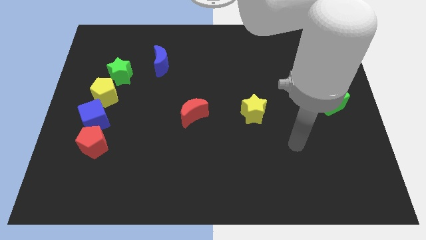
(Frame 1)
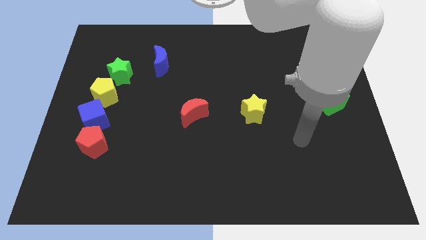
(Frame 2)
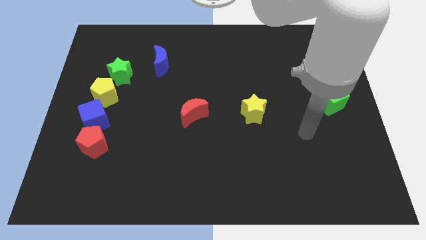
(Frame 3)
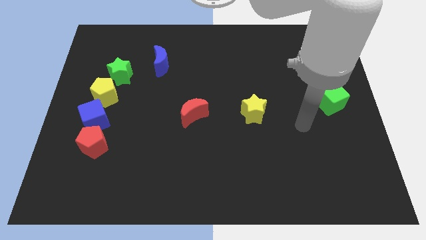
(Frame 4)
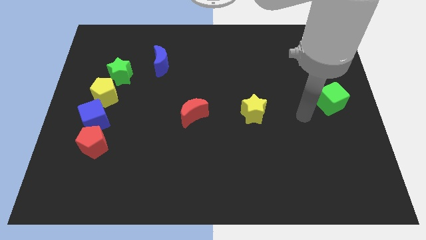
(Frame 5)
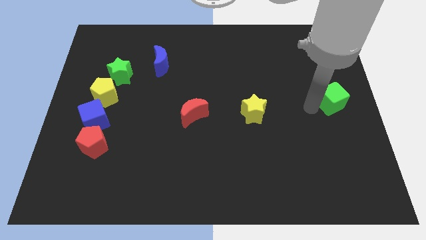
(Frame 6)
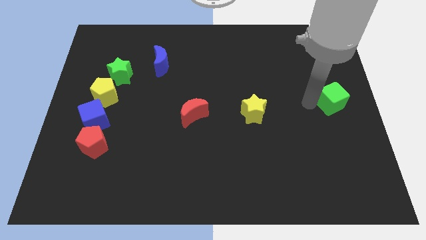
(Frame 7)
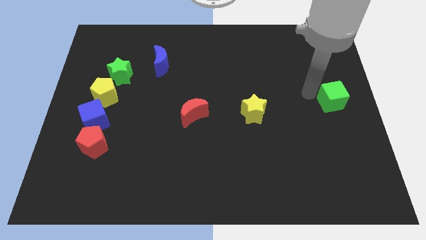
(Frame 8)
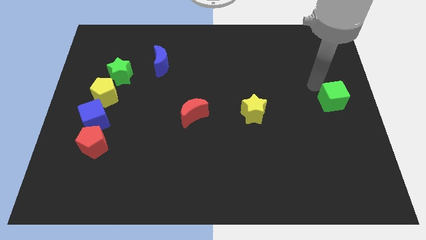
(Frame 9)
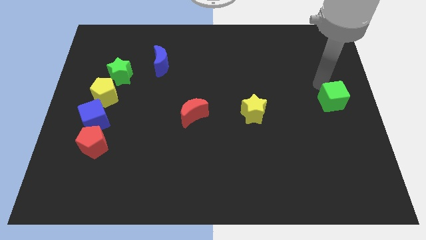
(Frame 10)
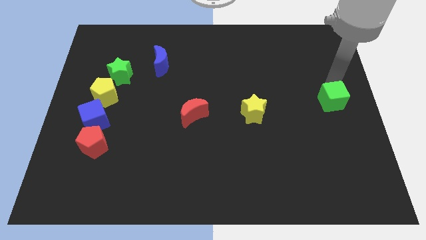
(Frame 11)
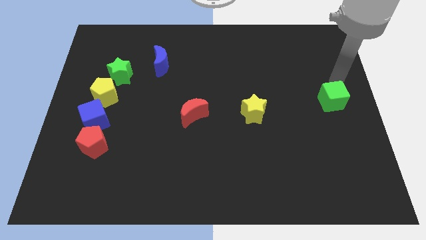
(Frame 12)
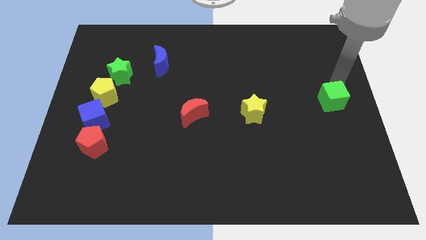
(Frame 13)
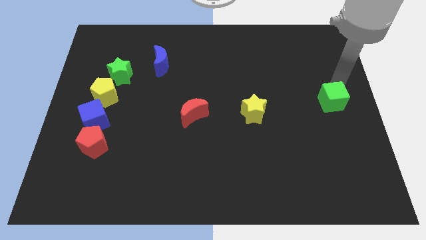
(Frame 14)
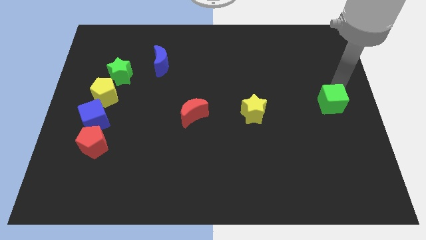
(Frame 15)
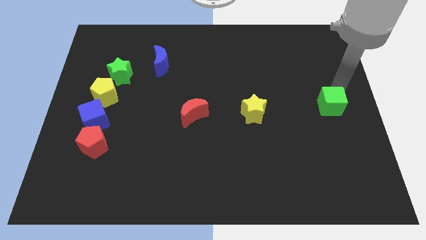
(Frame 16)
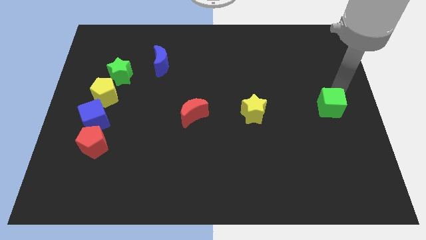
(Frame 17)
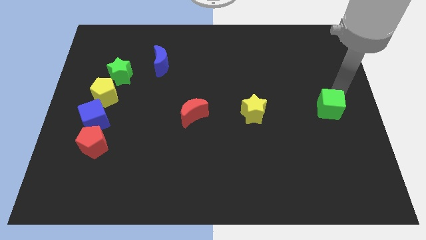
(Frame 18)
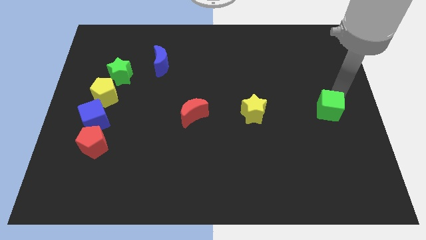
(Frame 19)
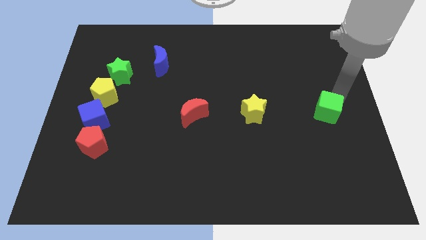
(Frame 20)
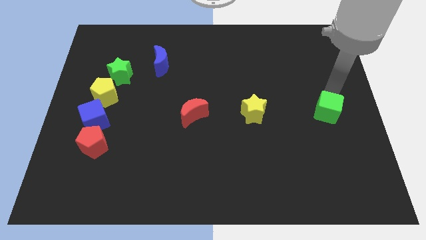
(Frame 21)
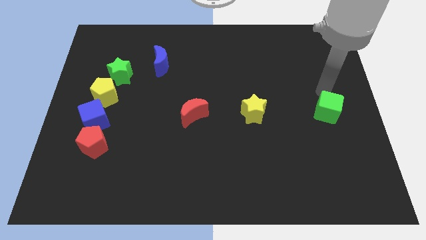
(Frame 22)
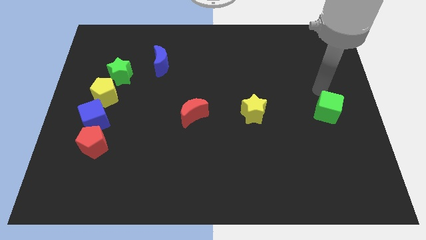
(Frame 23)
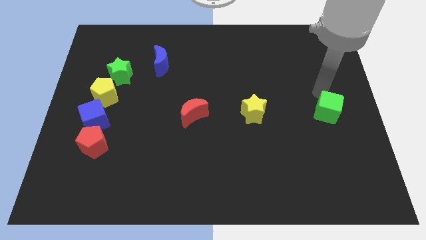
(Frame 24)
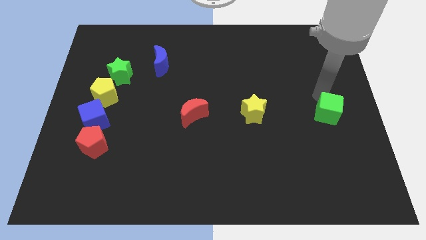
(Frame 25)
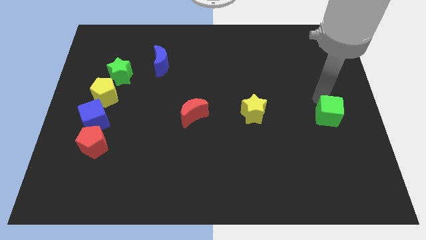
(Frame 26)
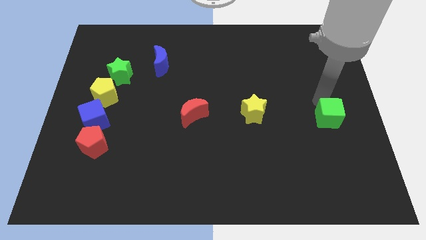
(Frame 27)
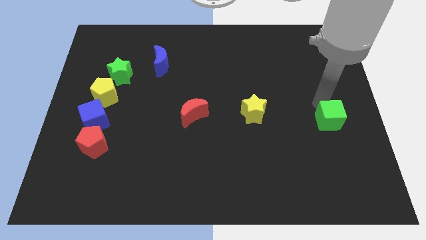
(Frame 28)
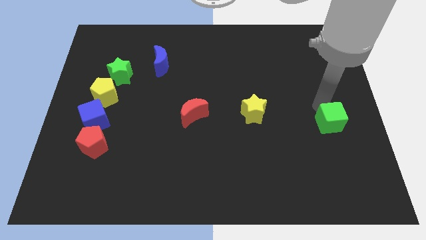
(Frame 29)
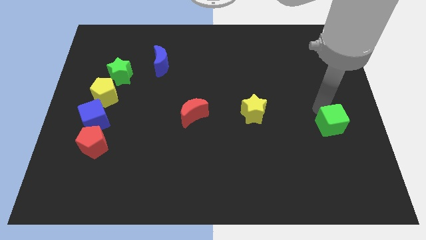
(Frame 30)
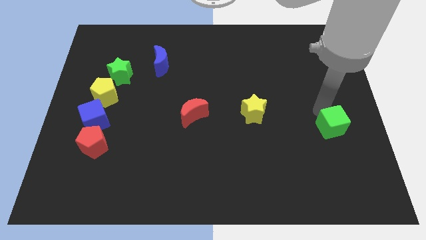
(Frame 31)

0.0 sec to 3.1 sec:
push the green cube a little bit down

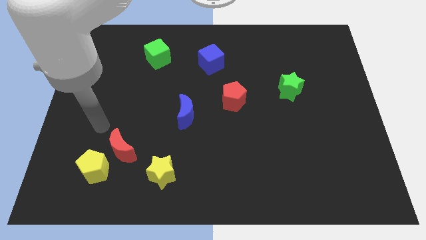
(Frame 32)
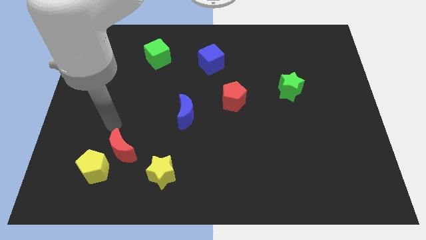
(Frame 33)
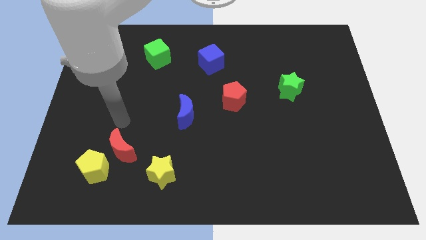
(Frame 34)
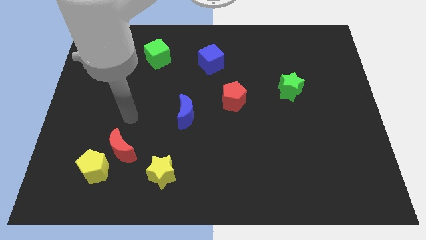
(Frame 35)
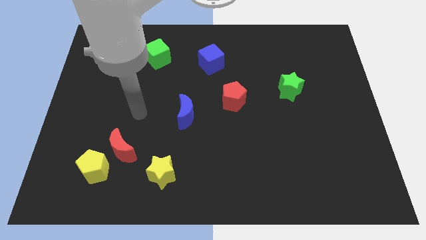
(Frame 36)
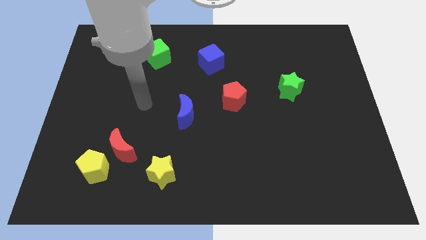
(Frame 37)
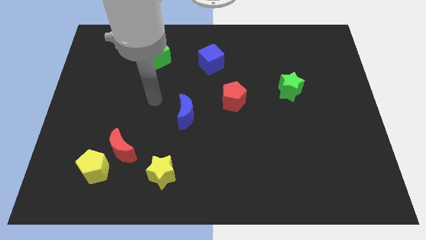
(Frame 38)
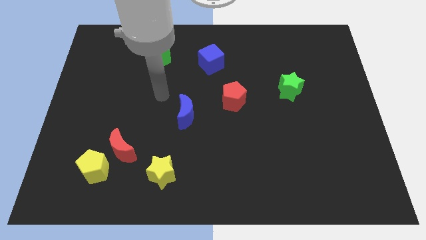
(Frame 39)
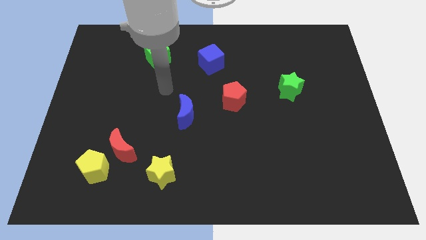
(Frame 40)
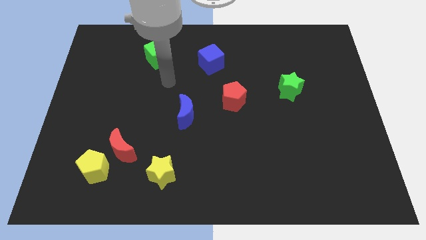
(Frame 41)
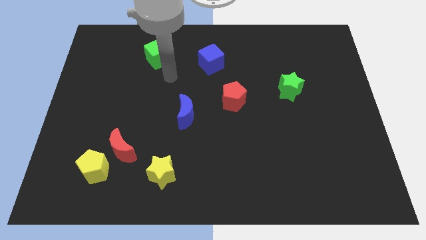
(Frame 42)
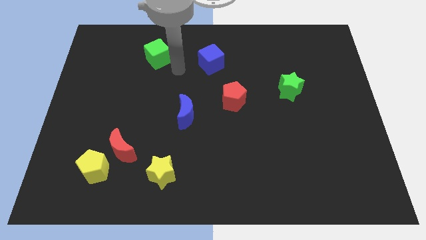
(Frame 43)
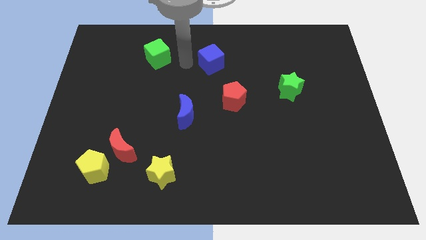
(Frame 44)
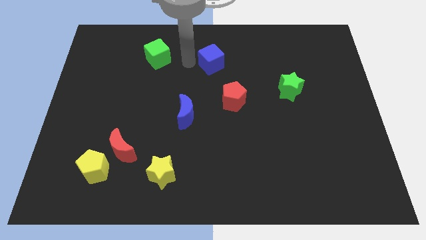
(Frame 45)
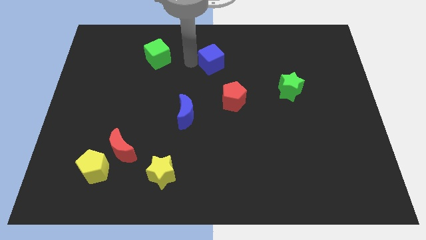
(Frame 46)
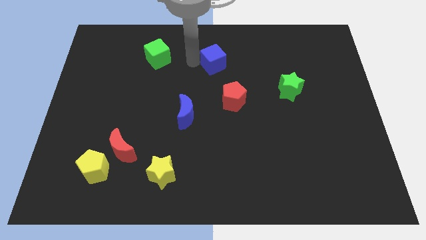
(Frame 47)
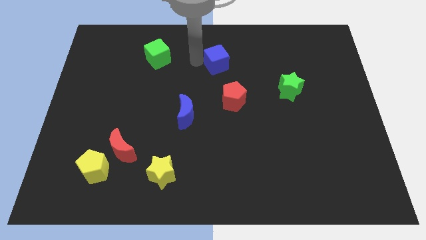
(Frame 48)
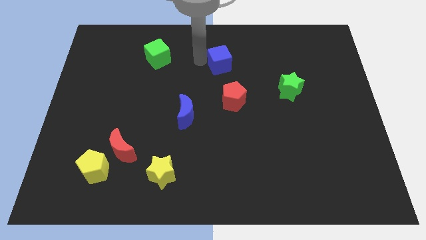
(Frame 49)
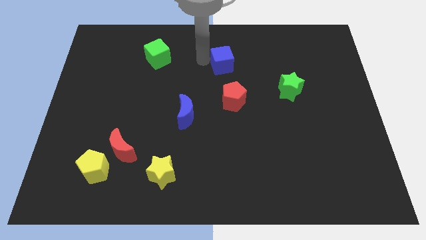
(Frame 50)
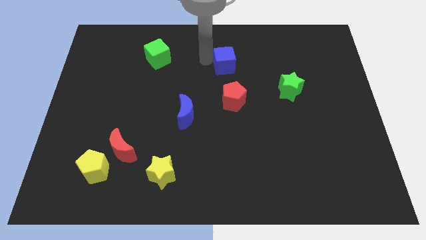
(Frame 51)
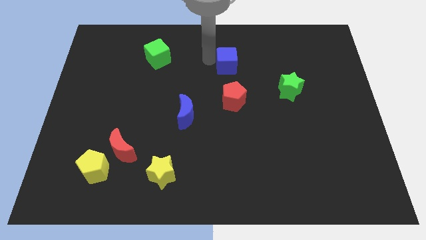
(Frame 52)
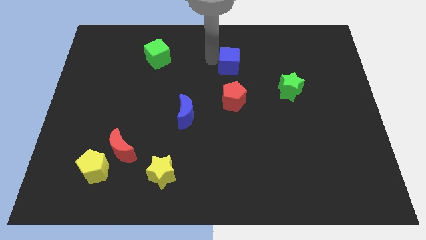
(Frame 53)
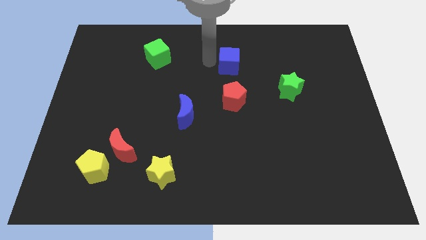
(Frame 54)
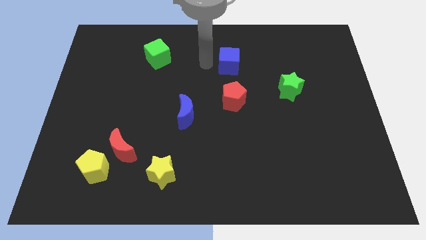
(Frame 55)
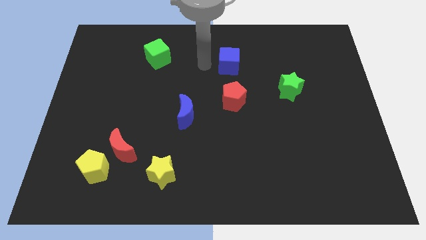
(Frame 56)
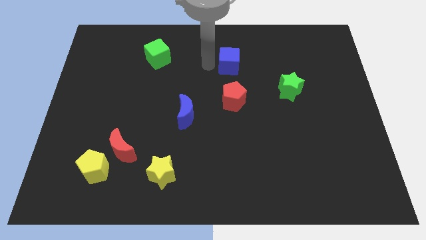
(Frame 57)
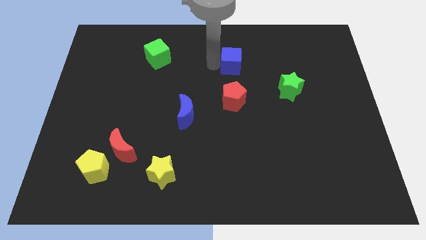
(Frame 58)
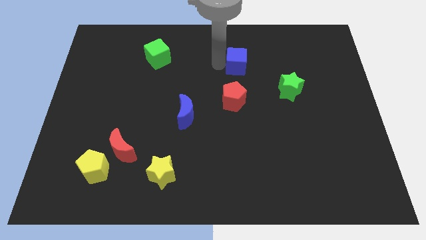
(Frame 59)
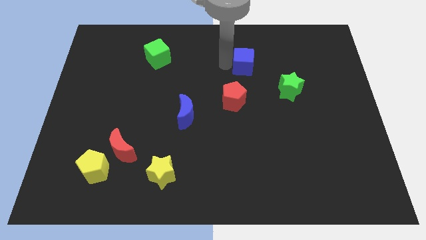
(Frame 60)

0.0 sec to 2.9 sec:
slide the blue cube a bit to the right

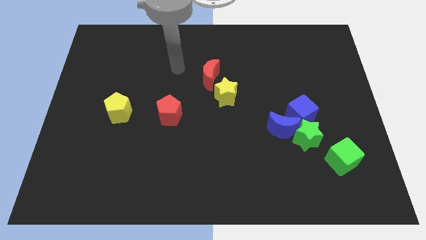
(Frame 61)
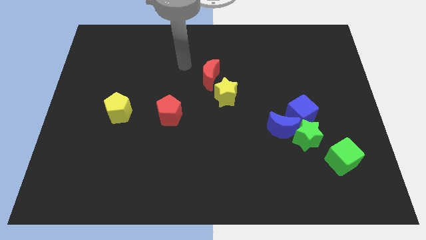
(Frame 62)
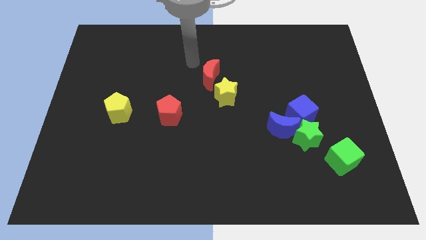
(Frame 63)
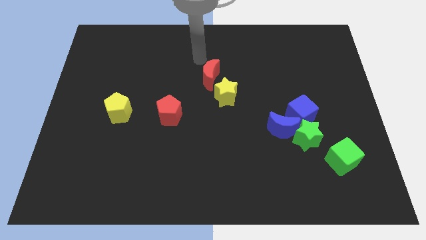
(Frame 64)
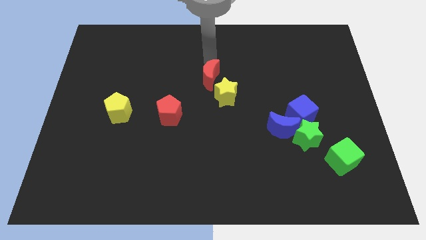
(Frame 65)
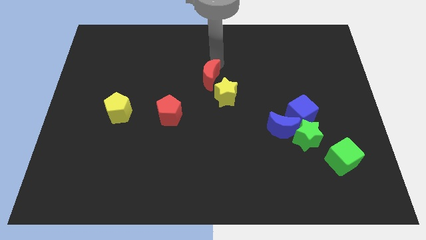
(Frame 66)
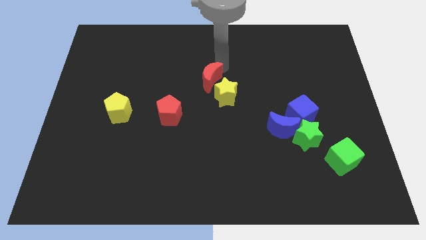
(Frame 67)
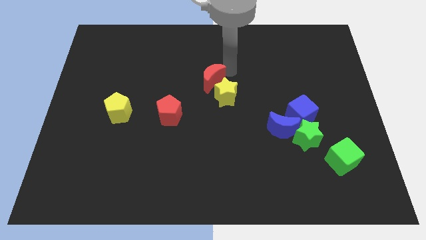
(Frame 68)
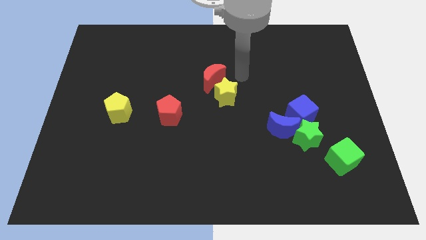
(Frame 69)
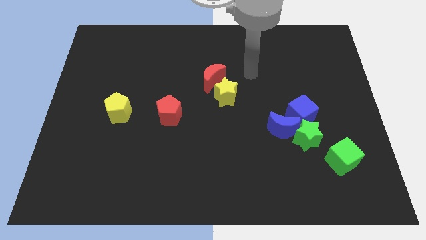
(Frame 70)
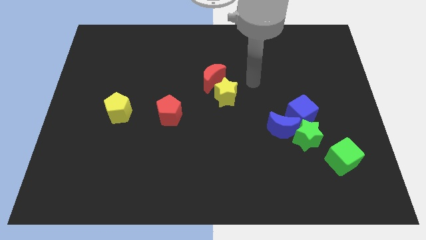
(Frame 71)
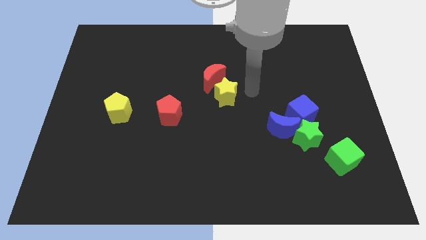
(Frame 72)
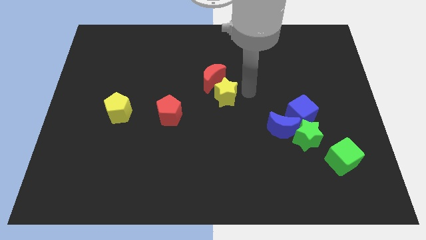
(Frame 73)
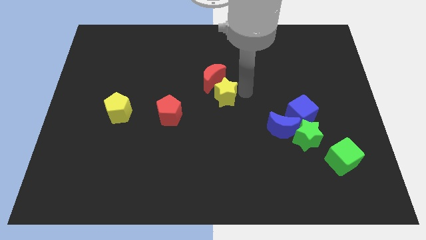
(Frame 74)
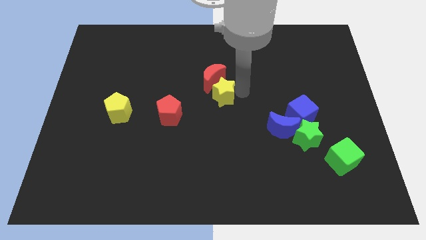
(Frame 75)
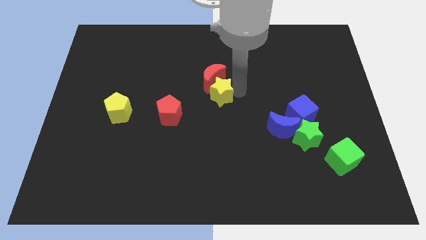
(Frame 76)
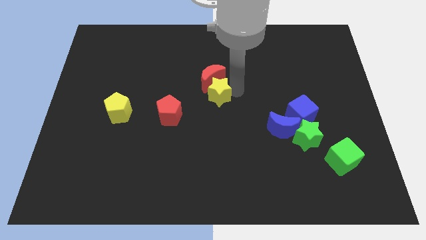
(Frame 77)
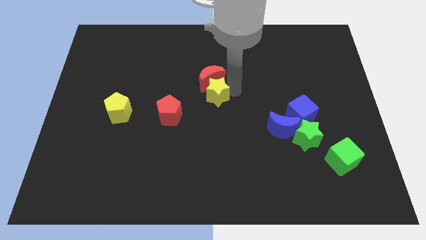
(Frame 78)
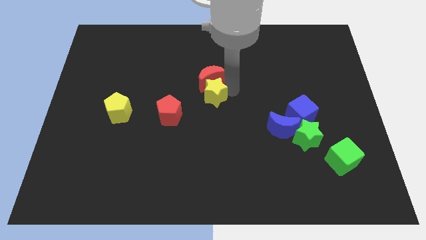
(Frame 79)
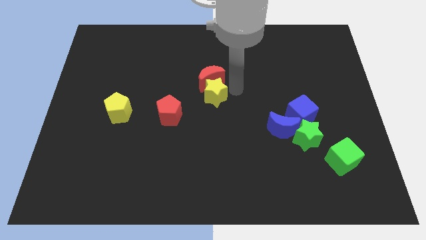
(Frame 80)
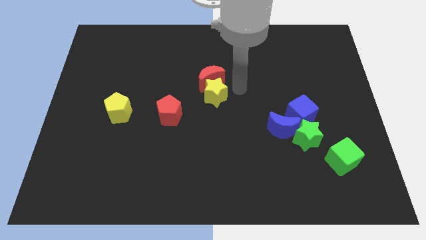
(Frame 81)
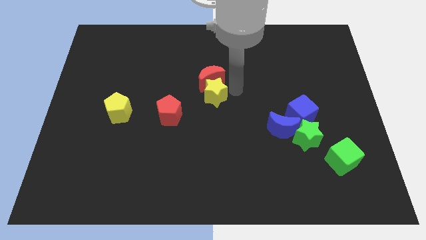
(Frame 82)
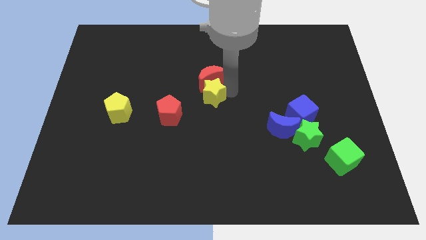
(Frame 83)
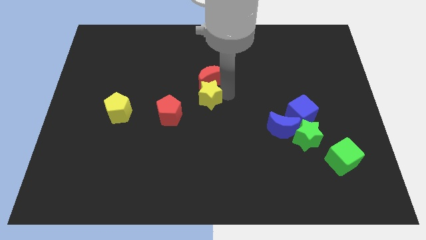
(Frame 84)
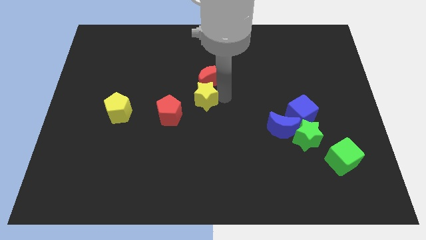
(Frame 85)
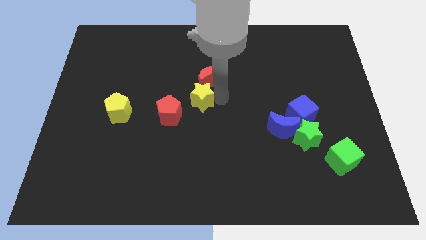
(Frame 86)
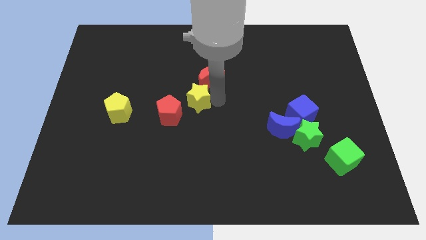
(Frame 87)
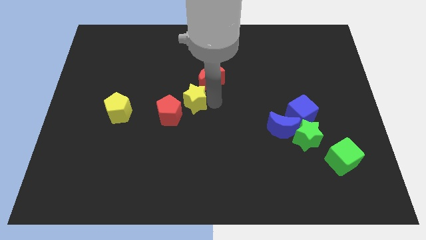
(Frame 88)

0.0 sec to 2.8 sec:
push the yellow star a little bit left
